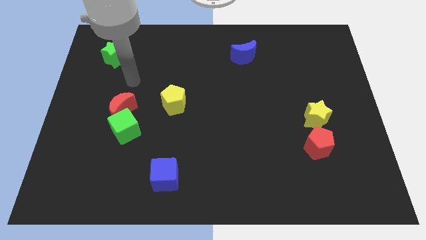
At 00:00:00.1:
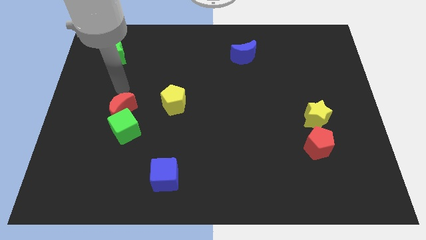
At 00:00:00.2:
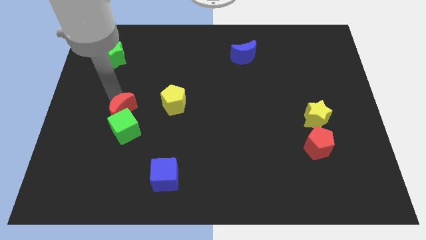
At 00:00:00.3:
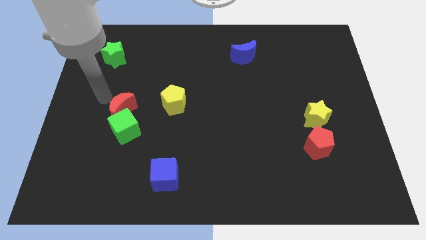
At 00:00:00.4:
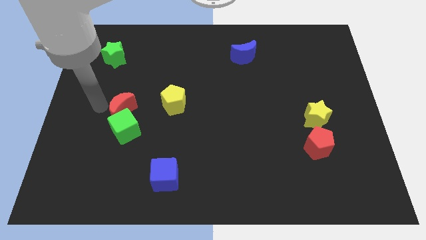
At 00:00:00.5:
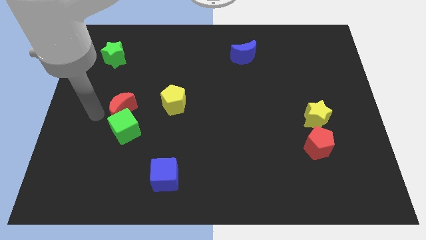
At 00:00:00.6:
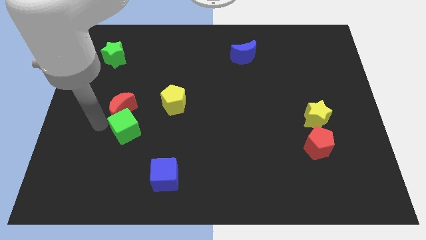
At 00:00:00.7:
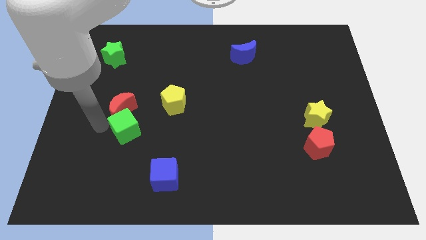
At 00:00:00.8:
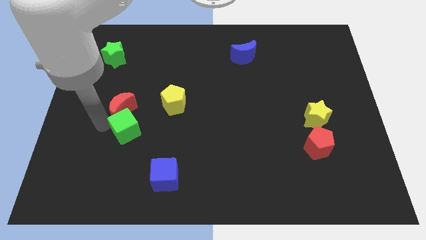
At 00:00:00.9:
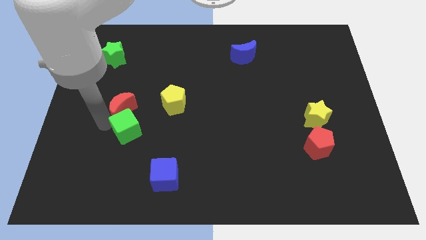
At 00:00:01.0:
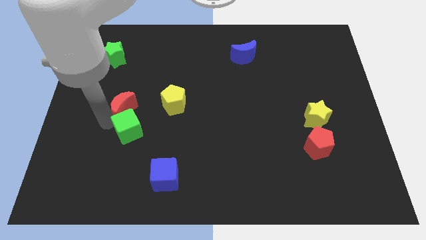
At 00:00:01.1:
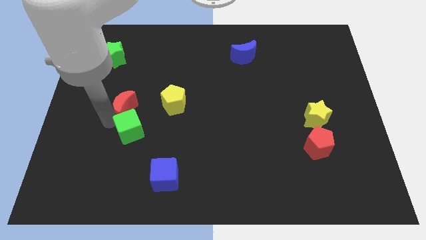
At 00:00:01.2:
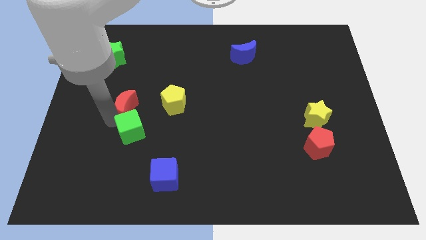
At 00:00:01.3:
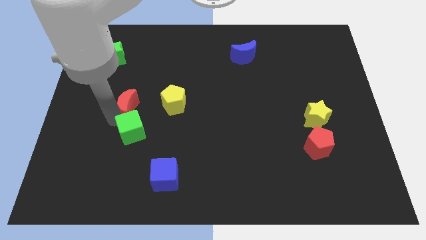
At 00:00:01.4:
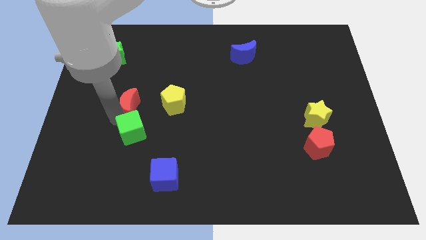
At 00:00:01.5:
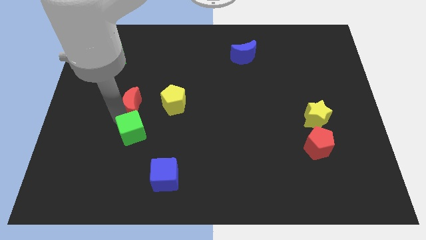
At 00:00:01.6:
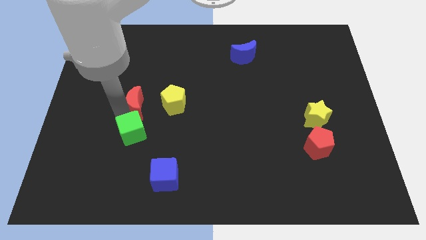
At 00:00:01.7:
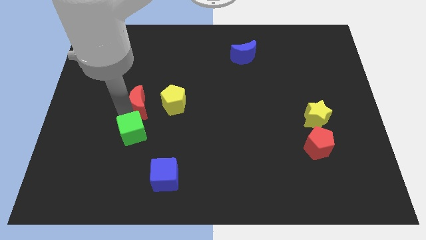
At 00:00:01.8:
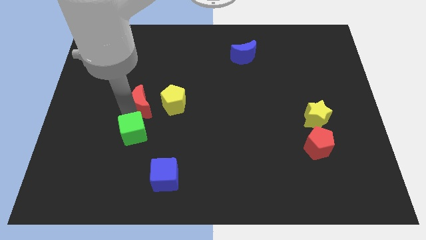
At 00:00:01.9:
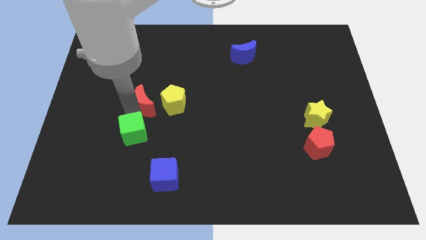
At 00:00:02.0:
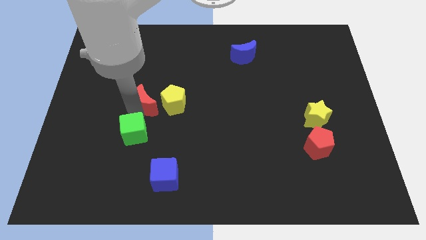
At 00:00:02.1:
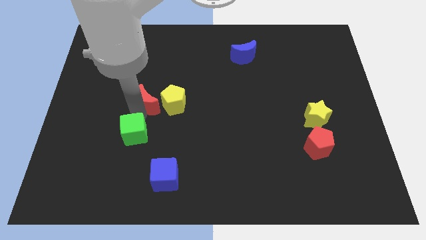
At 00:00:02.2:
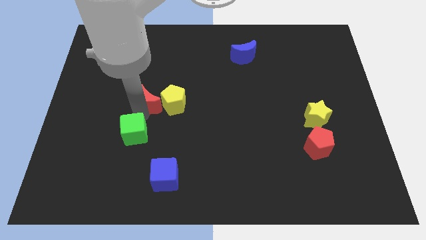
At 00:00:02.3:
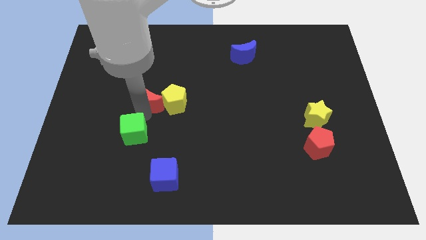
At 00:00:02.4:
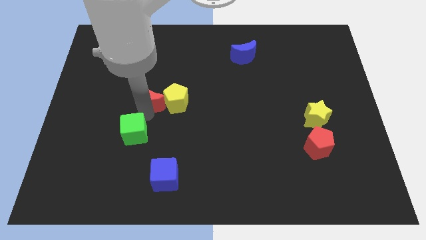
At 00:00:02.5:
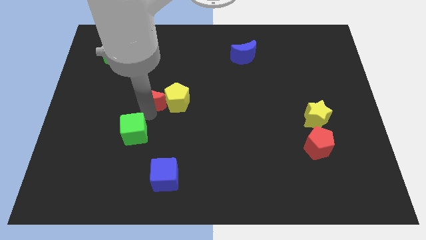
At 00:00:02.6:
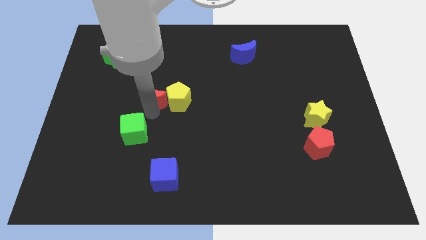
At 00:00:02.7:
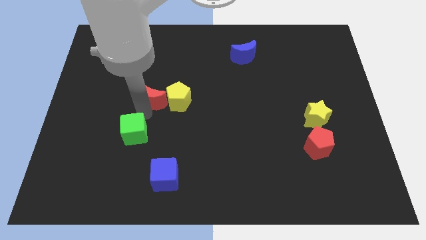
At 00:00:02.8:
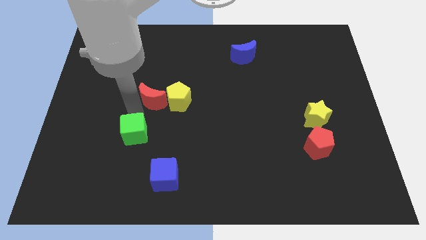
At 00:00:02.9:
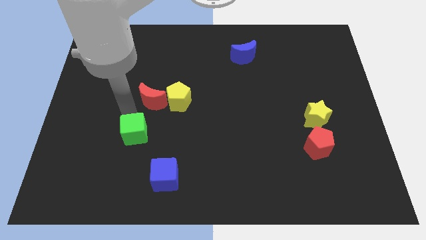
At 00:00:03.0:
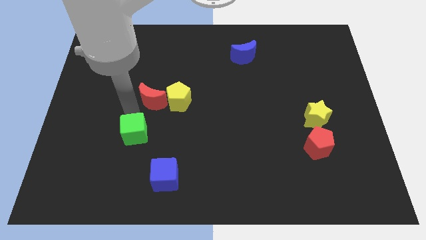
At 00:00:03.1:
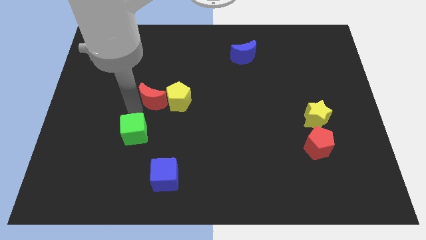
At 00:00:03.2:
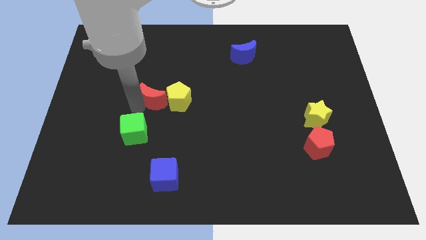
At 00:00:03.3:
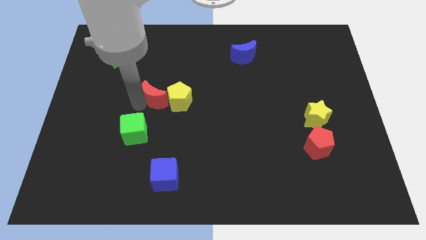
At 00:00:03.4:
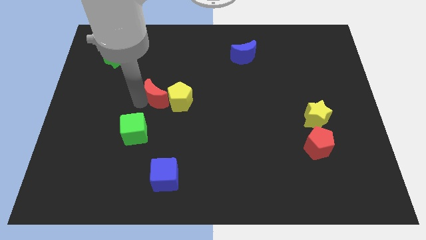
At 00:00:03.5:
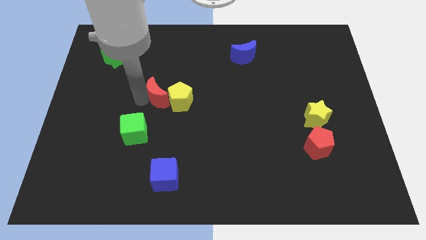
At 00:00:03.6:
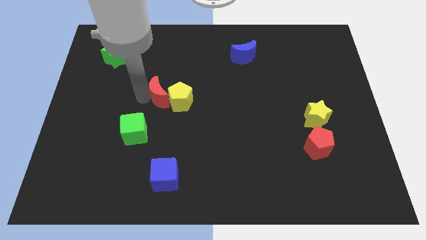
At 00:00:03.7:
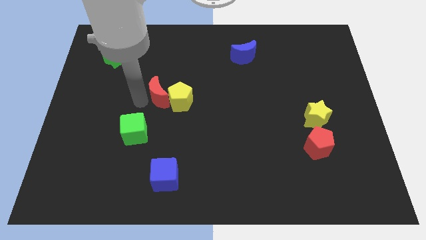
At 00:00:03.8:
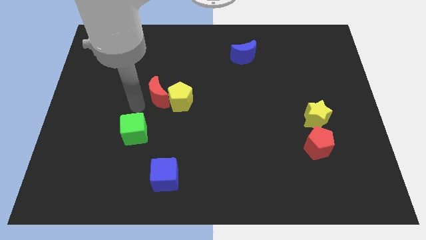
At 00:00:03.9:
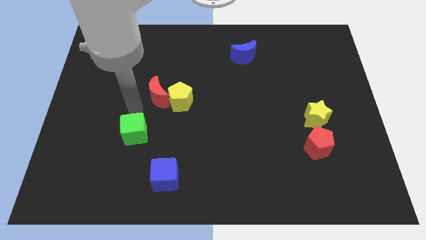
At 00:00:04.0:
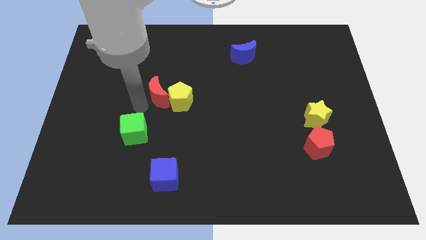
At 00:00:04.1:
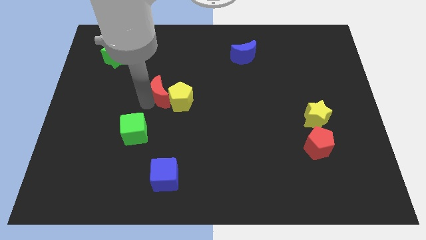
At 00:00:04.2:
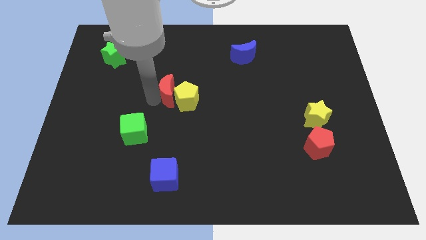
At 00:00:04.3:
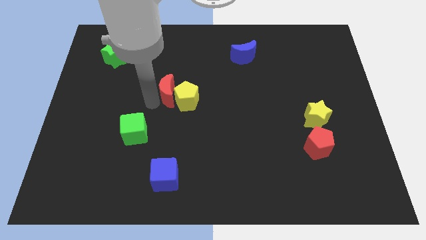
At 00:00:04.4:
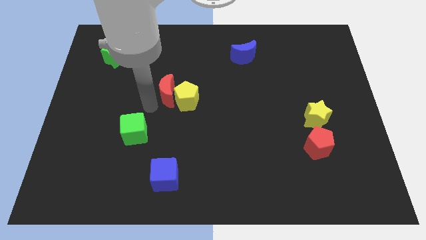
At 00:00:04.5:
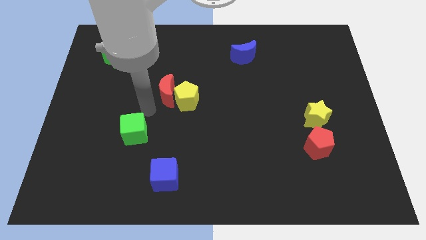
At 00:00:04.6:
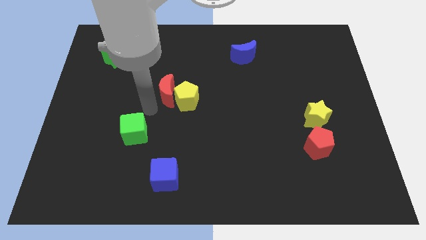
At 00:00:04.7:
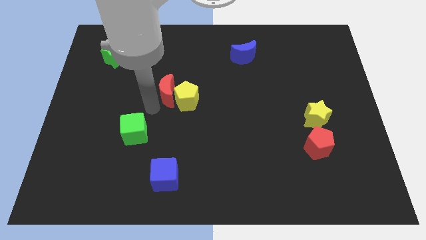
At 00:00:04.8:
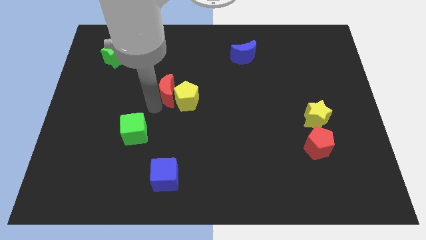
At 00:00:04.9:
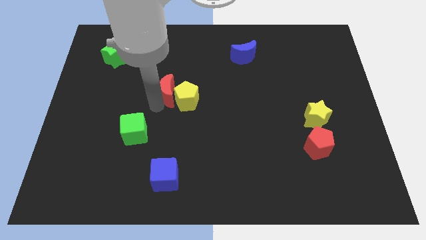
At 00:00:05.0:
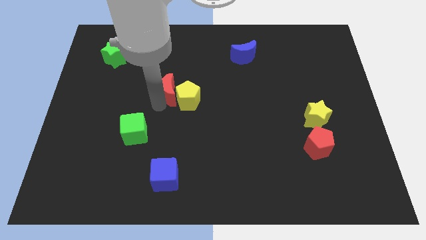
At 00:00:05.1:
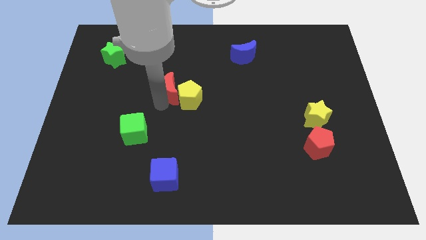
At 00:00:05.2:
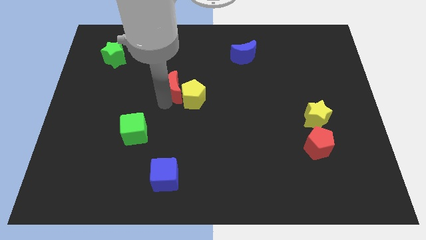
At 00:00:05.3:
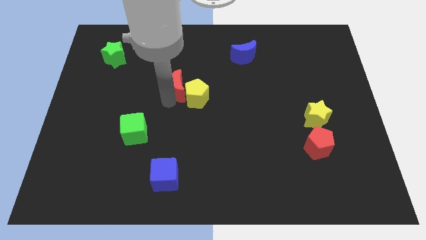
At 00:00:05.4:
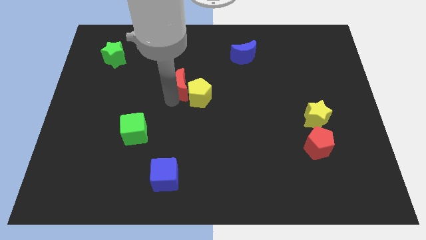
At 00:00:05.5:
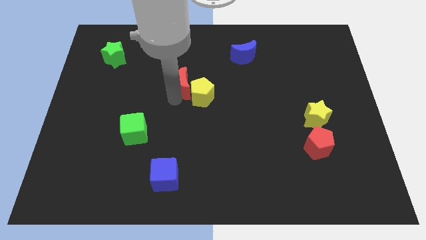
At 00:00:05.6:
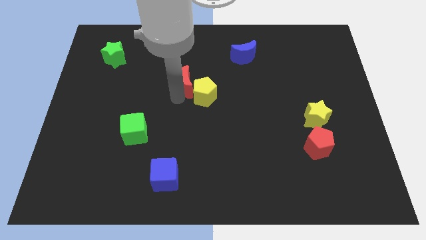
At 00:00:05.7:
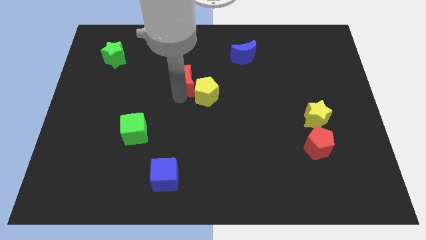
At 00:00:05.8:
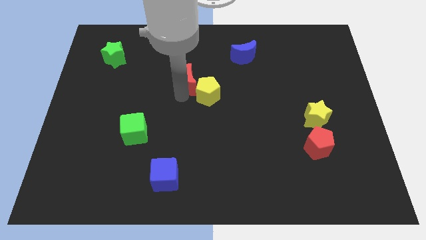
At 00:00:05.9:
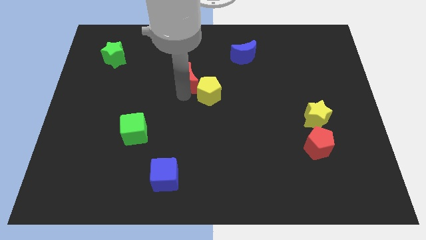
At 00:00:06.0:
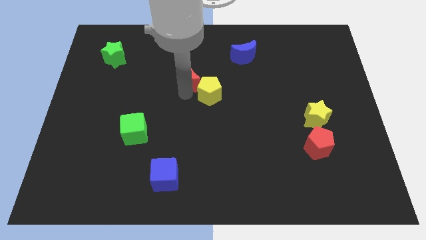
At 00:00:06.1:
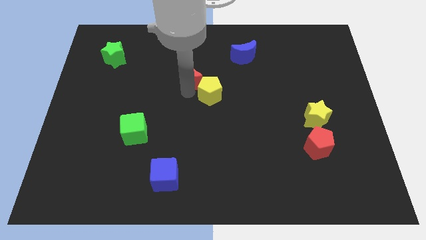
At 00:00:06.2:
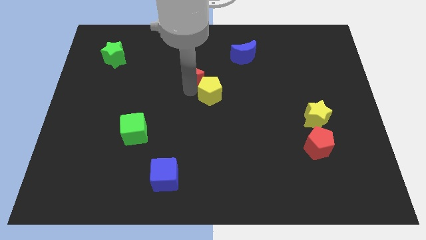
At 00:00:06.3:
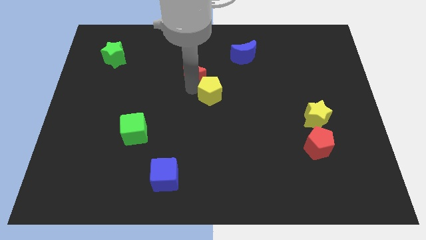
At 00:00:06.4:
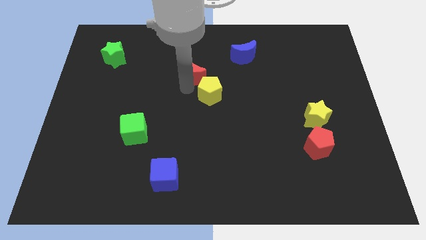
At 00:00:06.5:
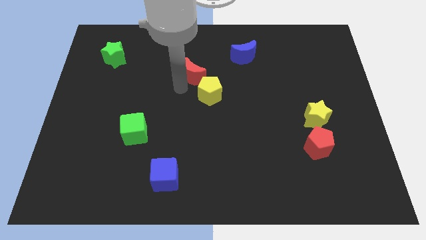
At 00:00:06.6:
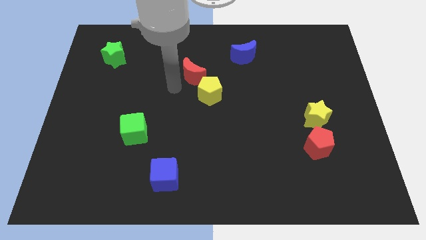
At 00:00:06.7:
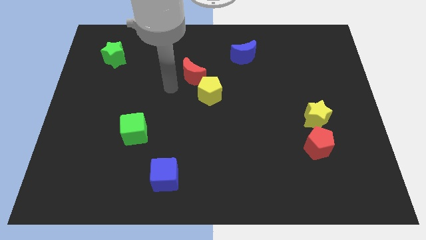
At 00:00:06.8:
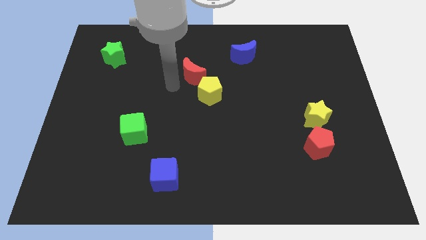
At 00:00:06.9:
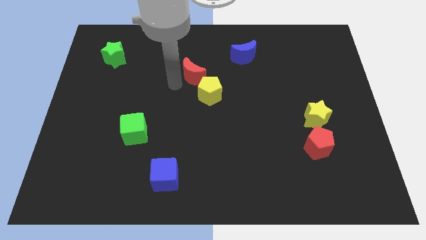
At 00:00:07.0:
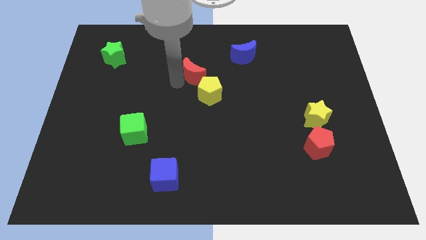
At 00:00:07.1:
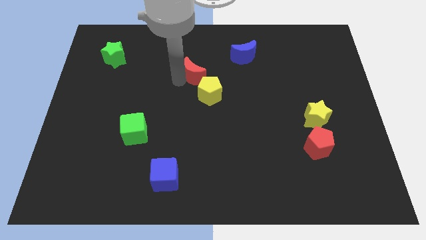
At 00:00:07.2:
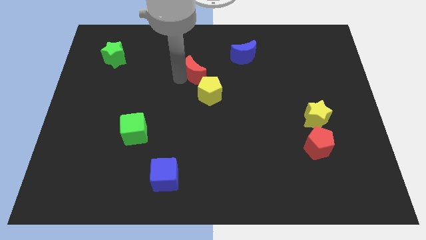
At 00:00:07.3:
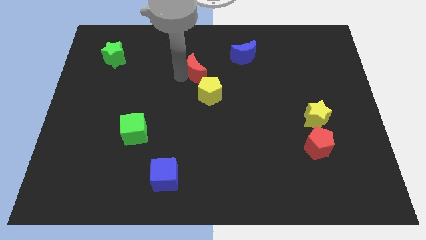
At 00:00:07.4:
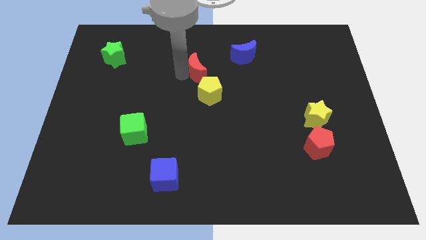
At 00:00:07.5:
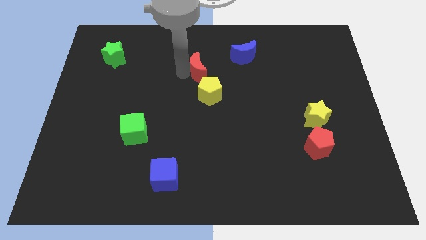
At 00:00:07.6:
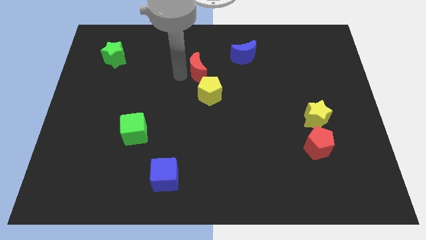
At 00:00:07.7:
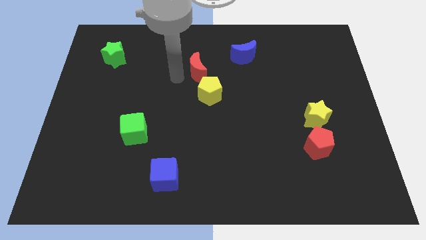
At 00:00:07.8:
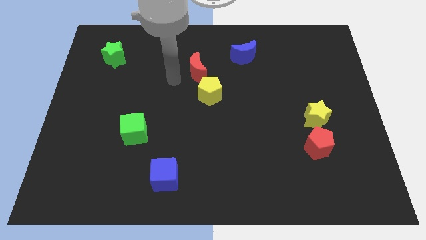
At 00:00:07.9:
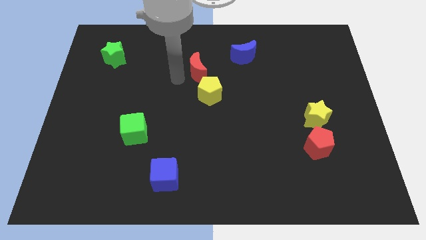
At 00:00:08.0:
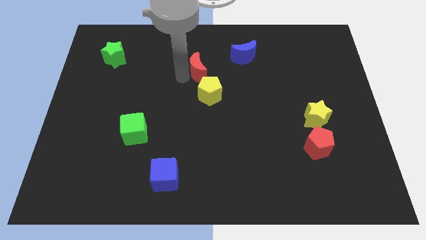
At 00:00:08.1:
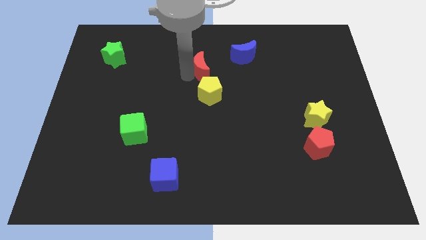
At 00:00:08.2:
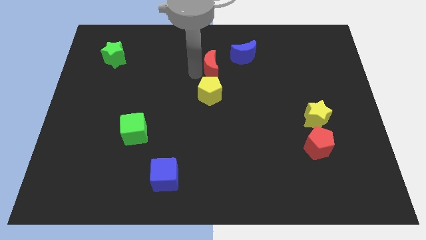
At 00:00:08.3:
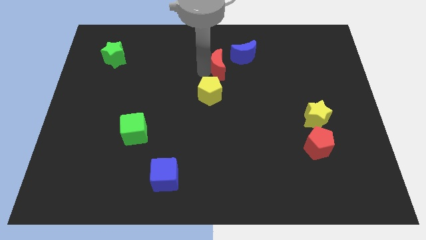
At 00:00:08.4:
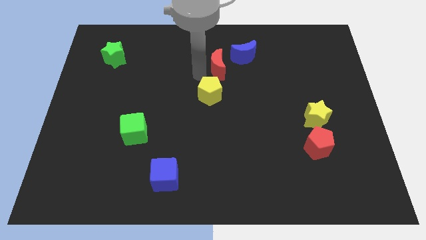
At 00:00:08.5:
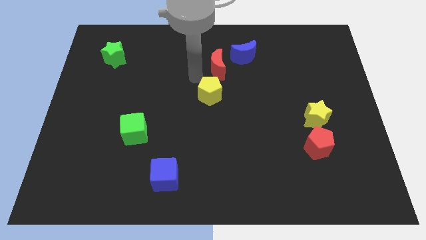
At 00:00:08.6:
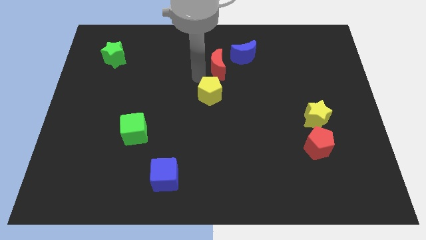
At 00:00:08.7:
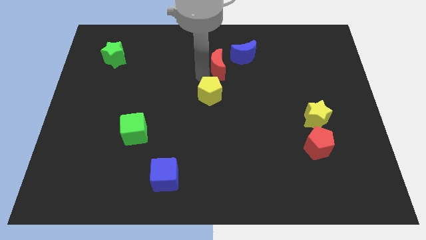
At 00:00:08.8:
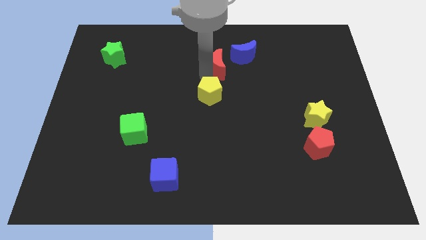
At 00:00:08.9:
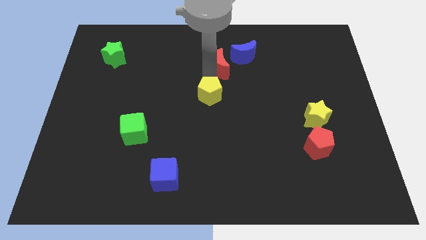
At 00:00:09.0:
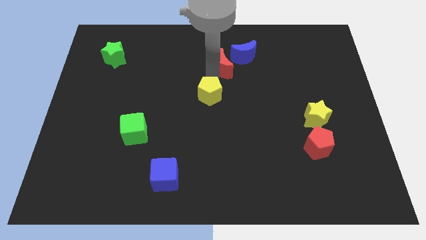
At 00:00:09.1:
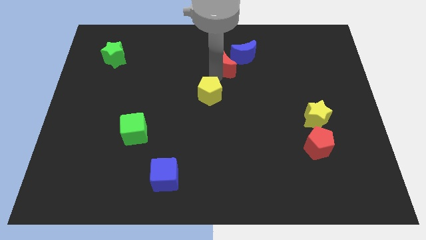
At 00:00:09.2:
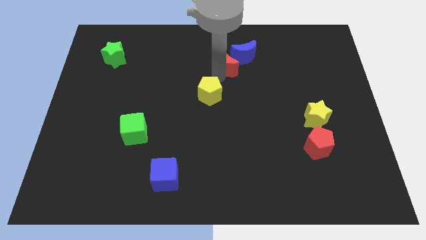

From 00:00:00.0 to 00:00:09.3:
push the red moon next to the blue moon
